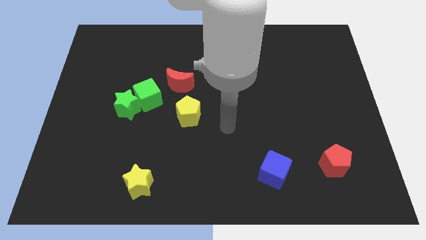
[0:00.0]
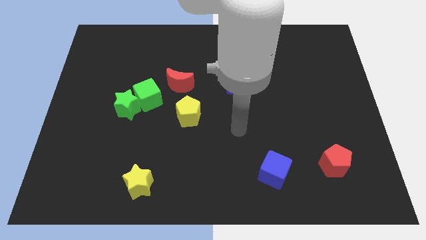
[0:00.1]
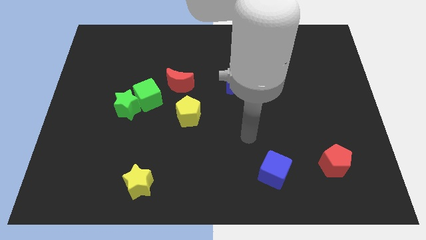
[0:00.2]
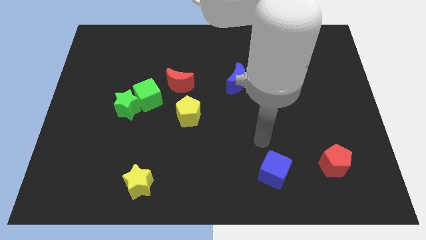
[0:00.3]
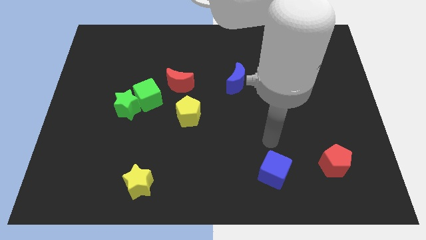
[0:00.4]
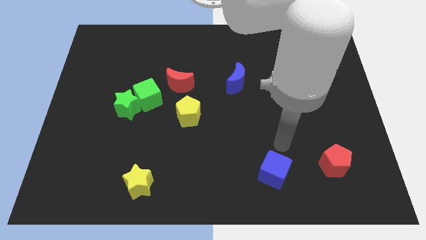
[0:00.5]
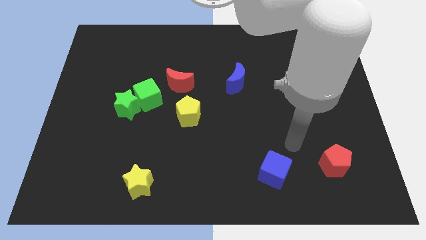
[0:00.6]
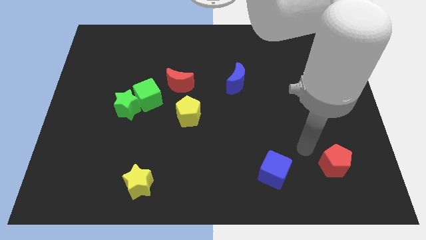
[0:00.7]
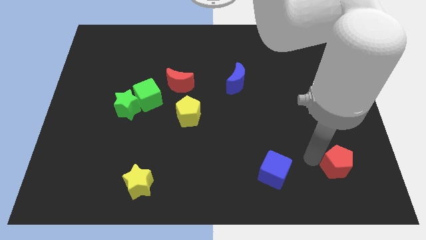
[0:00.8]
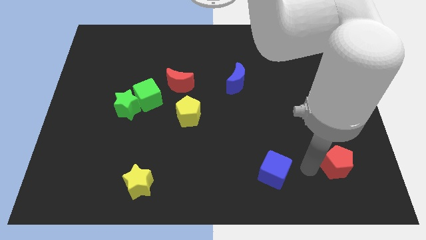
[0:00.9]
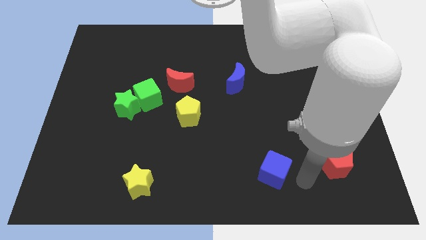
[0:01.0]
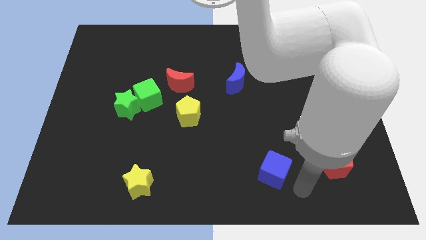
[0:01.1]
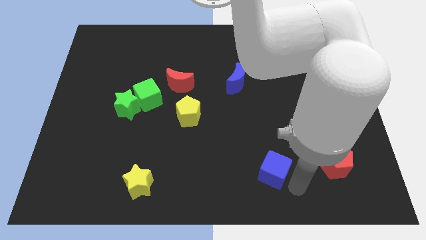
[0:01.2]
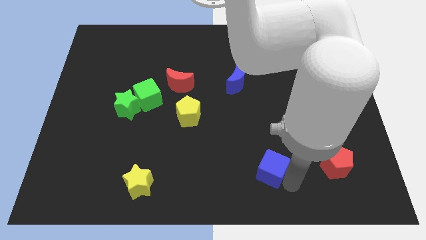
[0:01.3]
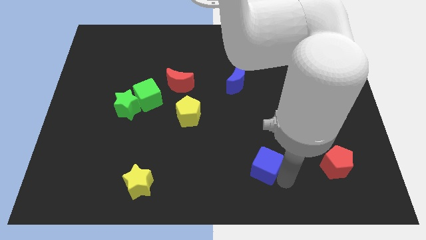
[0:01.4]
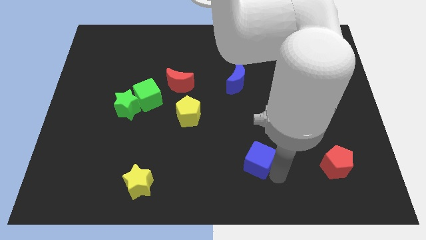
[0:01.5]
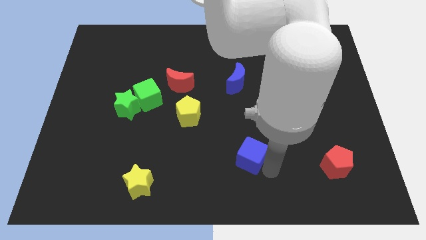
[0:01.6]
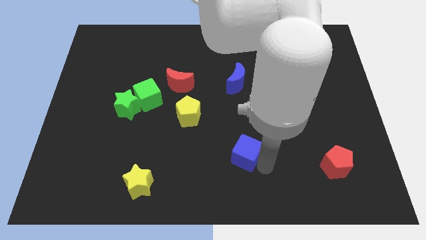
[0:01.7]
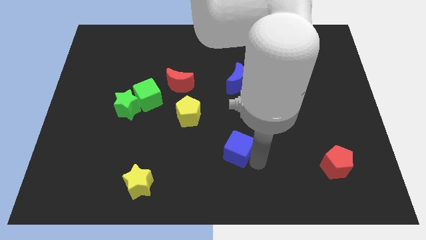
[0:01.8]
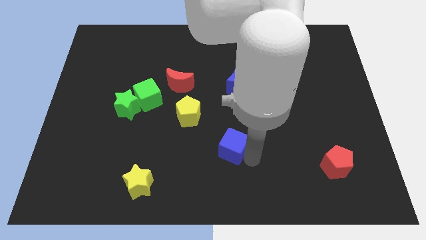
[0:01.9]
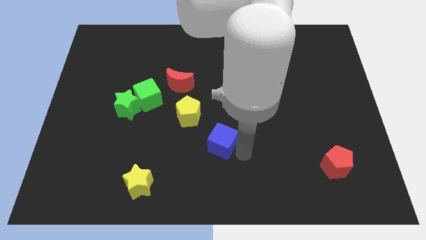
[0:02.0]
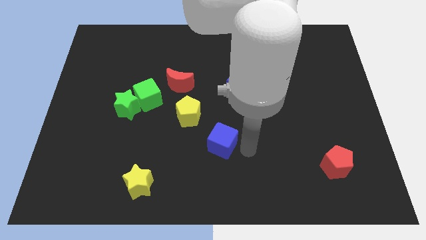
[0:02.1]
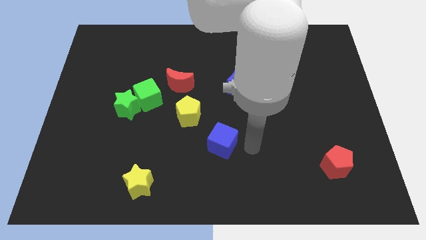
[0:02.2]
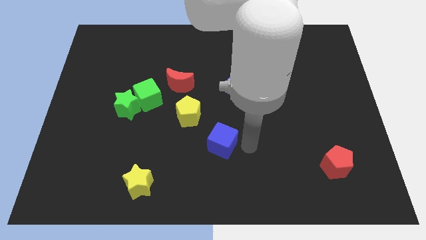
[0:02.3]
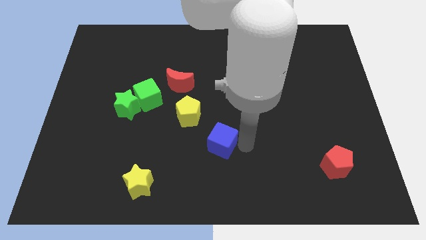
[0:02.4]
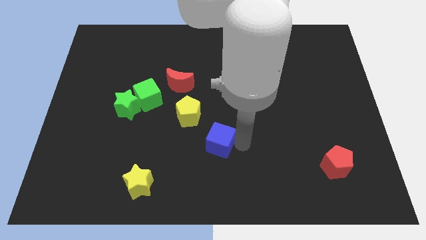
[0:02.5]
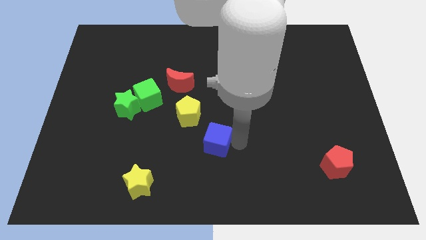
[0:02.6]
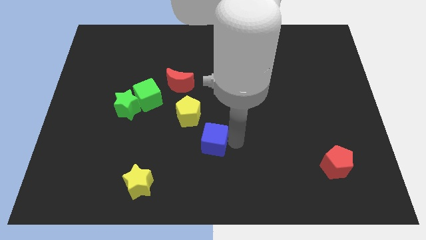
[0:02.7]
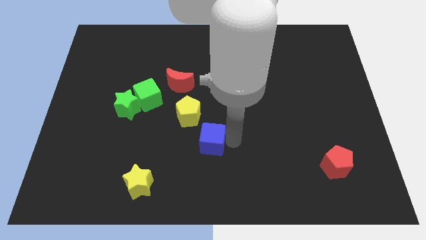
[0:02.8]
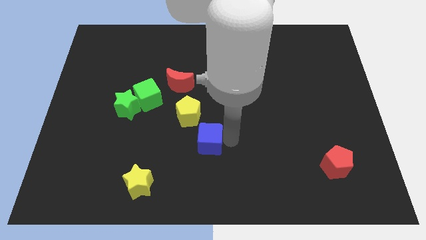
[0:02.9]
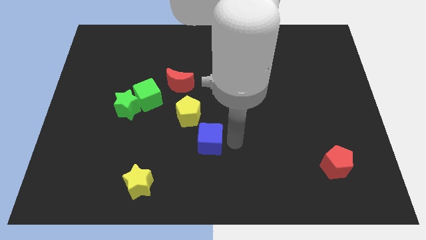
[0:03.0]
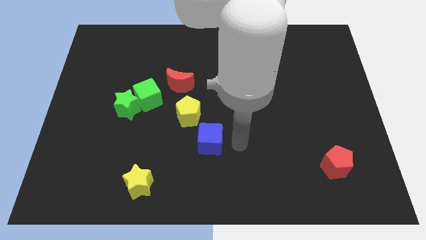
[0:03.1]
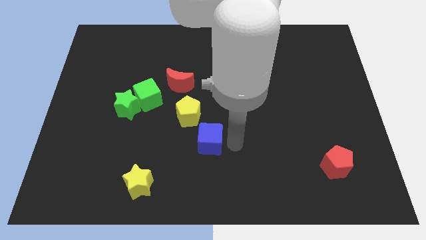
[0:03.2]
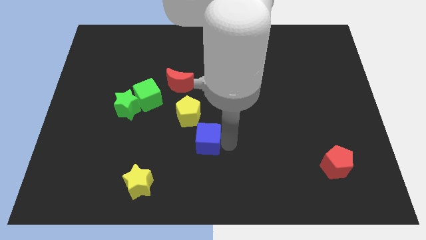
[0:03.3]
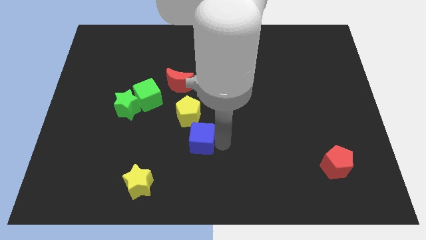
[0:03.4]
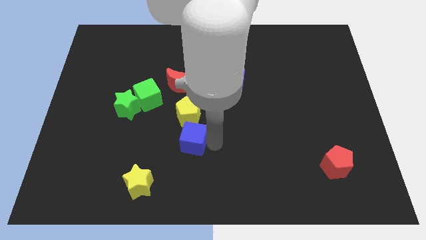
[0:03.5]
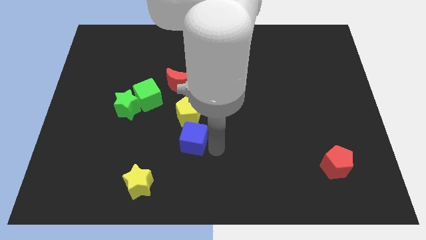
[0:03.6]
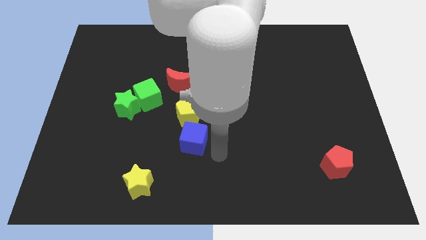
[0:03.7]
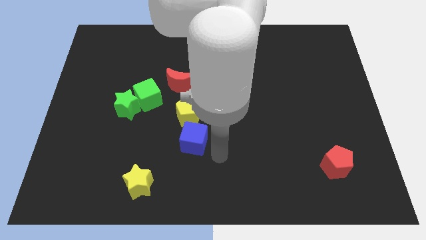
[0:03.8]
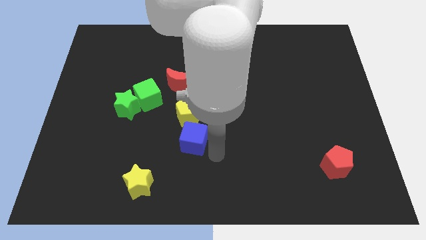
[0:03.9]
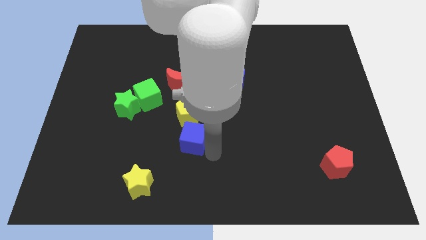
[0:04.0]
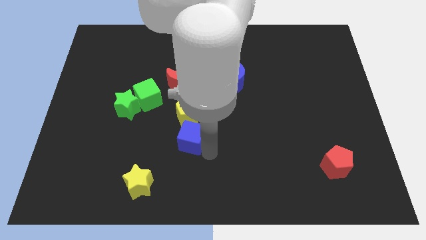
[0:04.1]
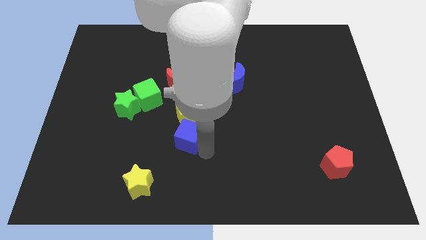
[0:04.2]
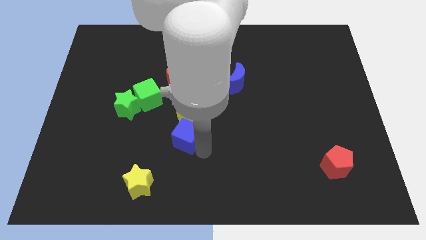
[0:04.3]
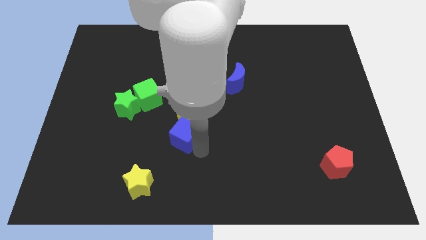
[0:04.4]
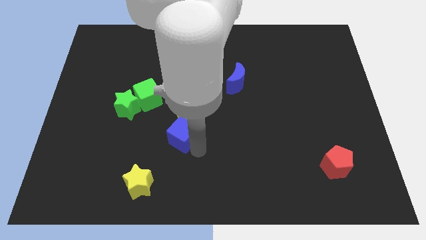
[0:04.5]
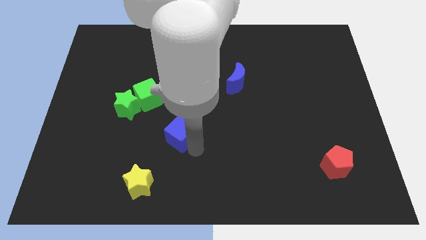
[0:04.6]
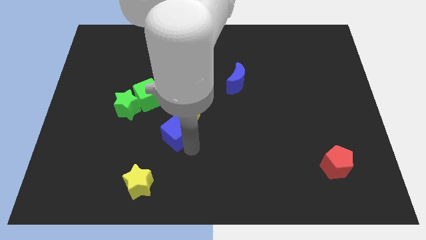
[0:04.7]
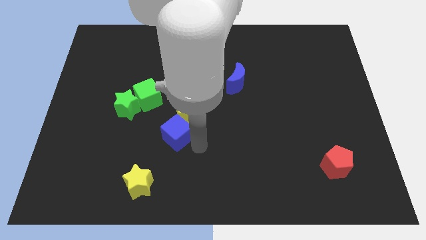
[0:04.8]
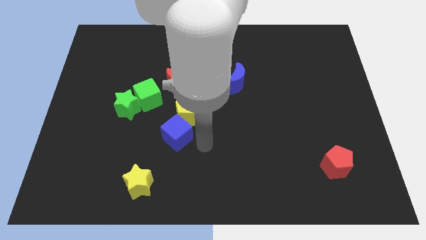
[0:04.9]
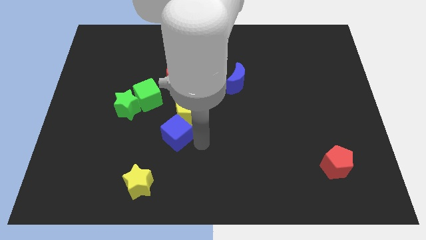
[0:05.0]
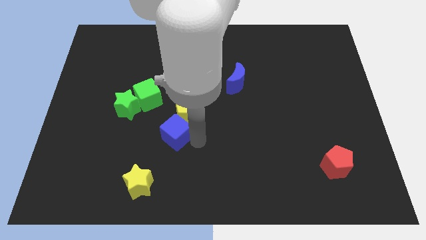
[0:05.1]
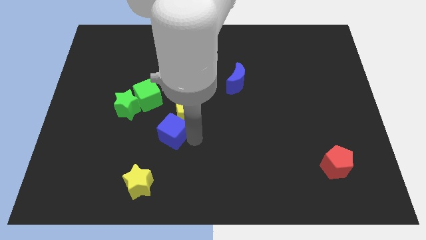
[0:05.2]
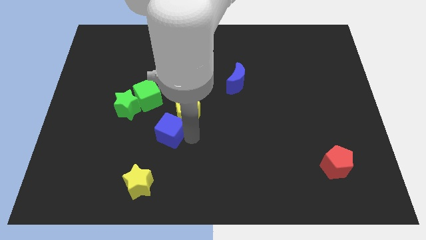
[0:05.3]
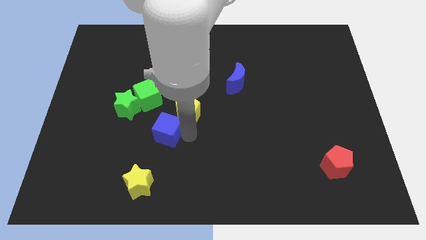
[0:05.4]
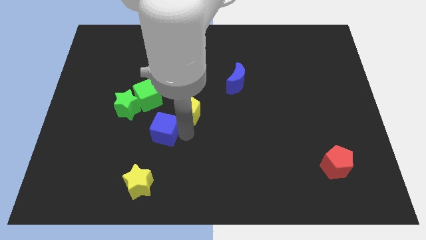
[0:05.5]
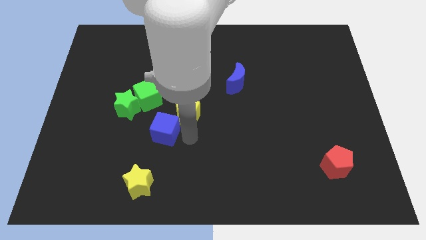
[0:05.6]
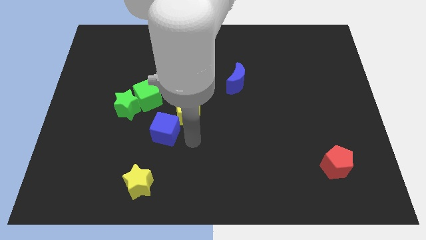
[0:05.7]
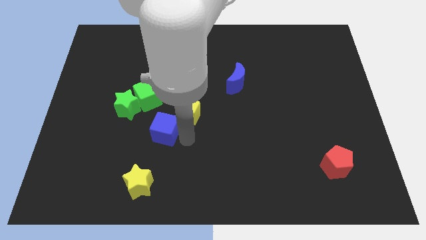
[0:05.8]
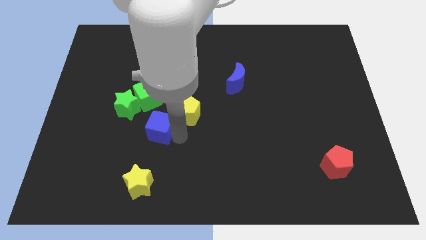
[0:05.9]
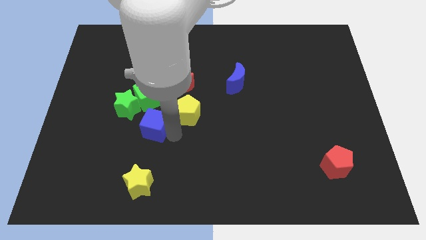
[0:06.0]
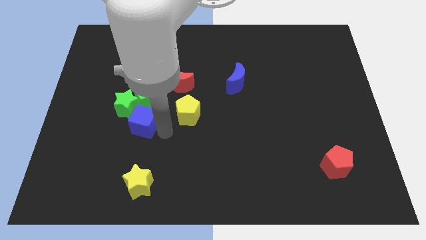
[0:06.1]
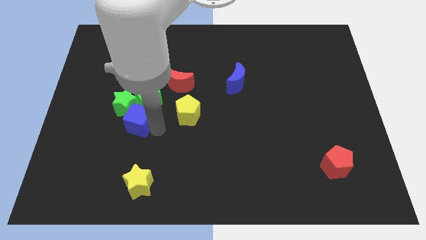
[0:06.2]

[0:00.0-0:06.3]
move the blue cube diagonally down and to the left of the green cube

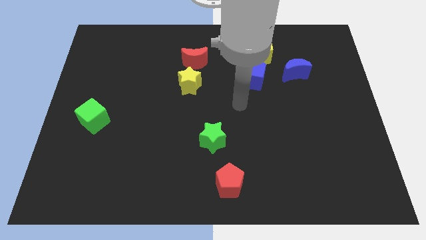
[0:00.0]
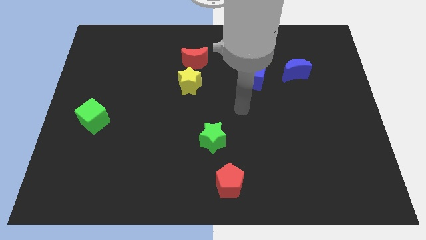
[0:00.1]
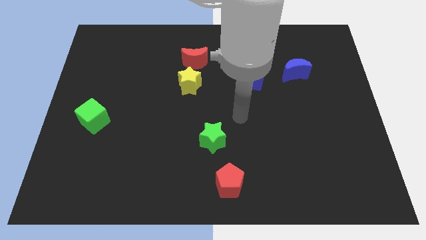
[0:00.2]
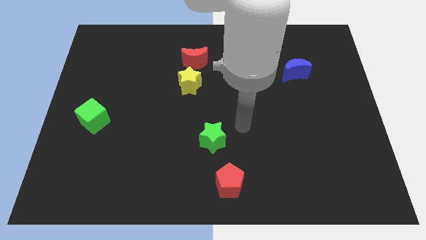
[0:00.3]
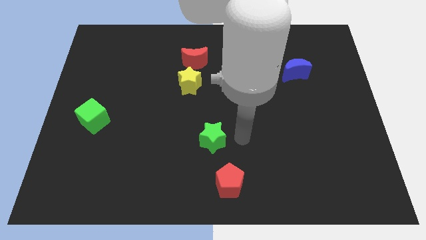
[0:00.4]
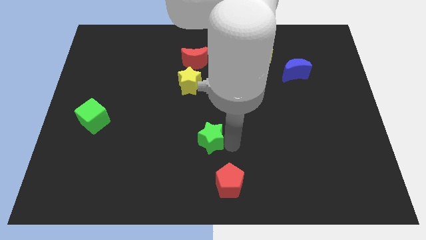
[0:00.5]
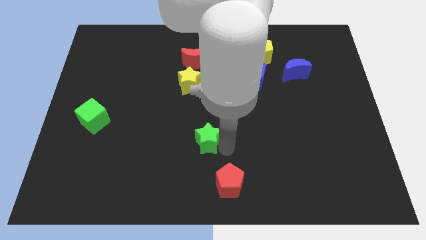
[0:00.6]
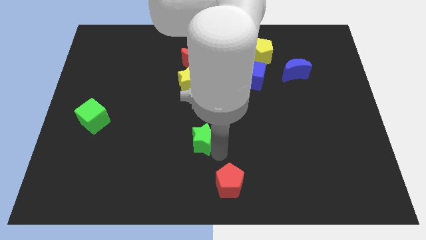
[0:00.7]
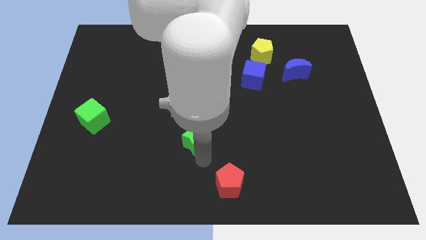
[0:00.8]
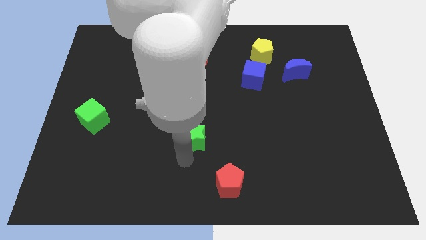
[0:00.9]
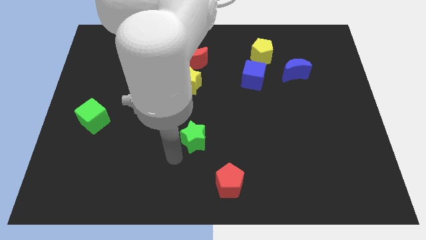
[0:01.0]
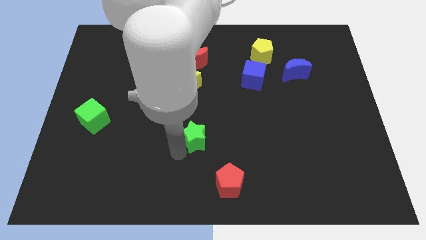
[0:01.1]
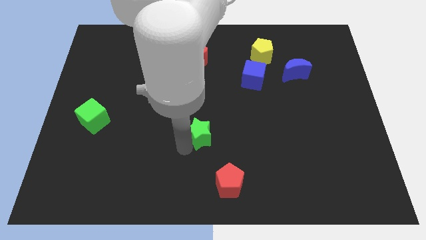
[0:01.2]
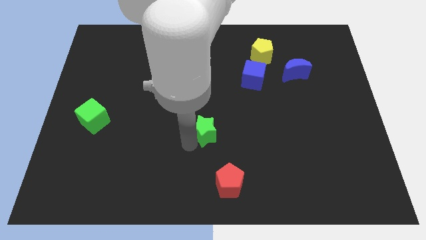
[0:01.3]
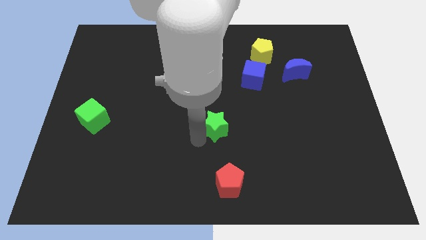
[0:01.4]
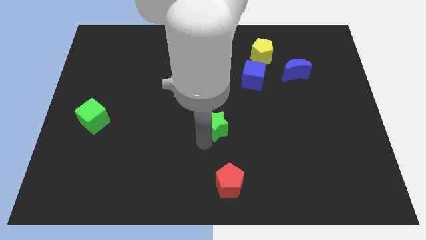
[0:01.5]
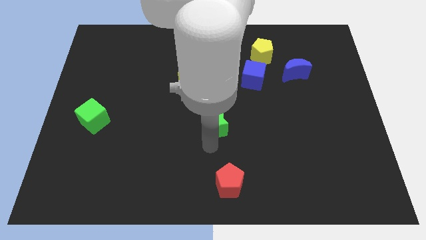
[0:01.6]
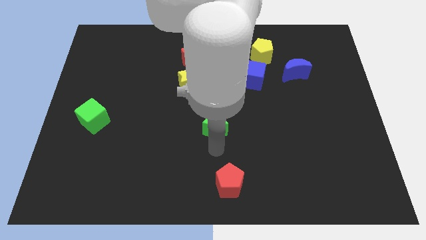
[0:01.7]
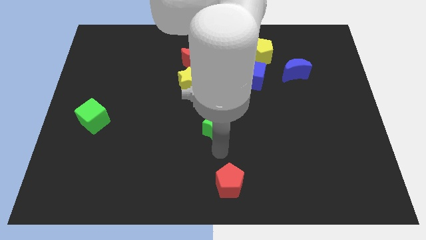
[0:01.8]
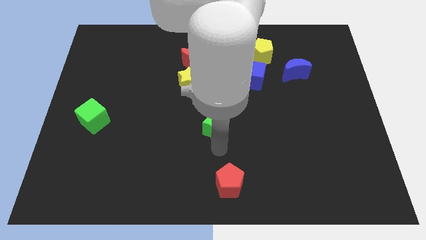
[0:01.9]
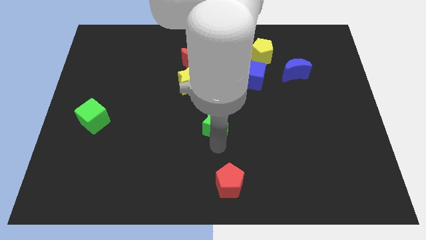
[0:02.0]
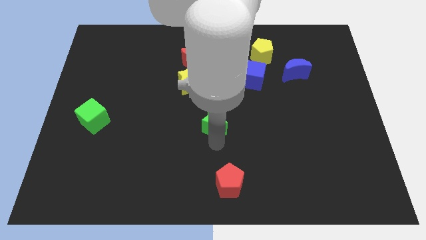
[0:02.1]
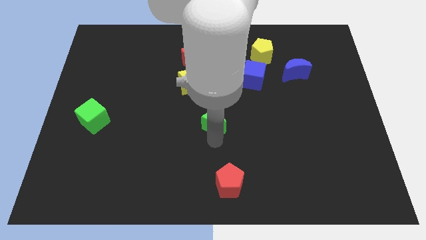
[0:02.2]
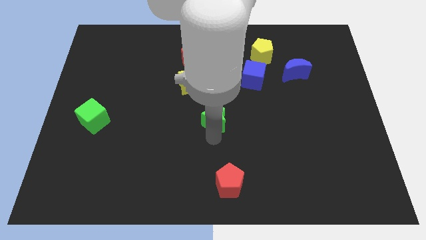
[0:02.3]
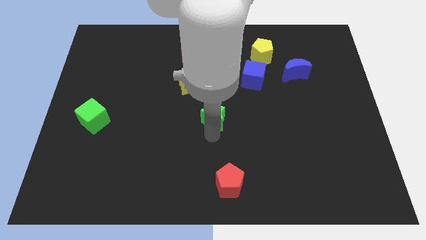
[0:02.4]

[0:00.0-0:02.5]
put the green star to the bottom right of the yellow star
